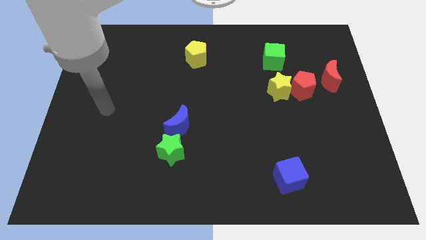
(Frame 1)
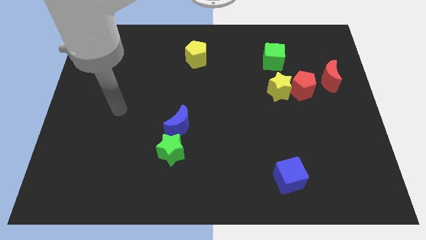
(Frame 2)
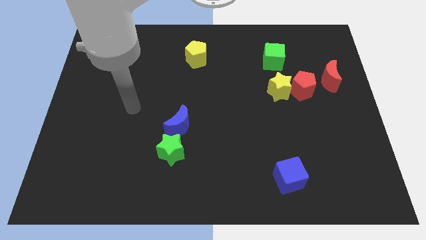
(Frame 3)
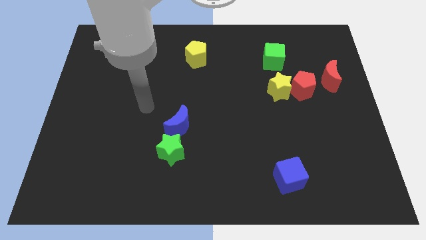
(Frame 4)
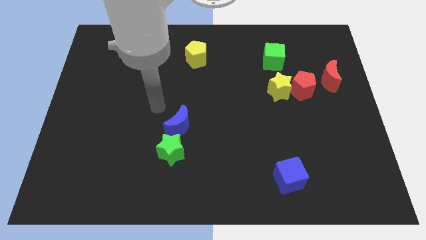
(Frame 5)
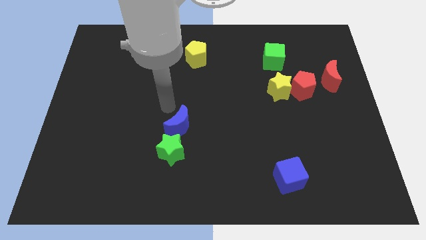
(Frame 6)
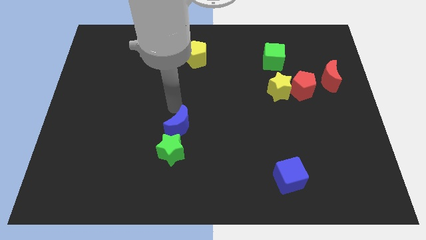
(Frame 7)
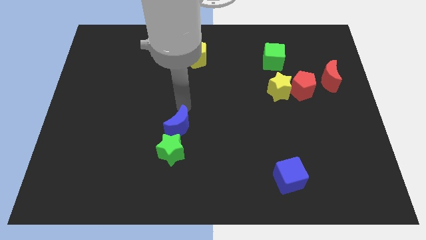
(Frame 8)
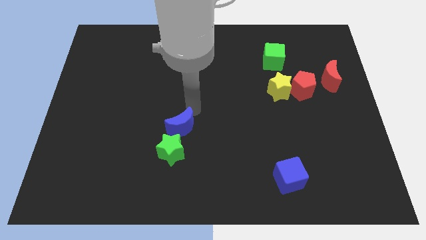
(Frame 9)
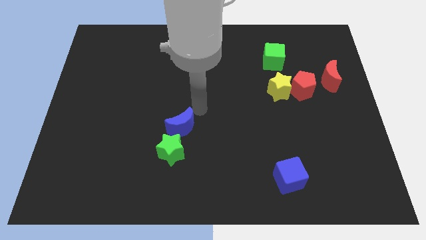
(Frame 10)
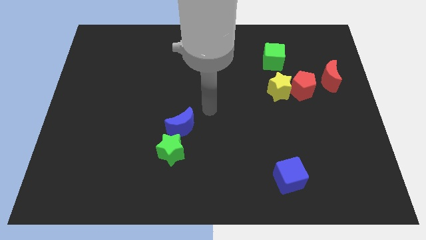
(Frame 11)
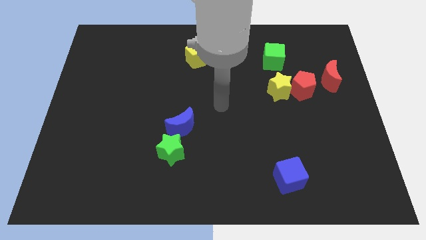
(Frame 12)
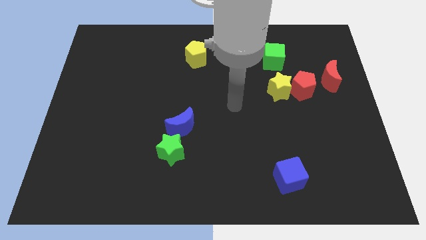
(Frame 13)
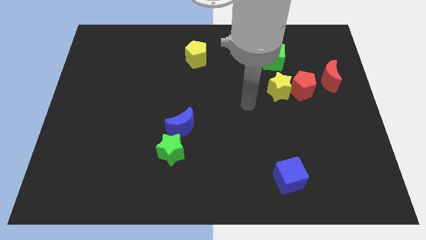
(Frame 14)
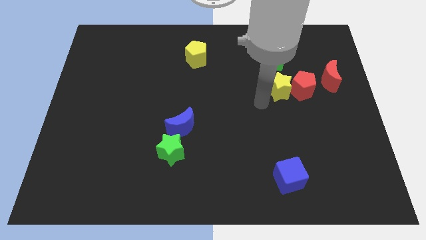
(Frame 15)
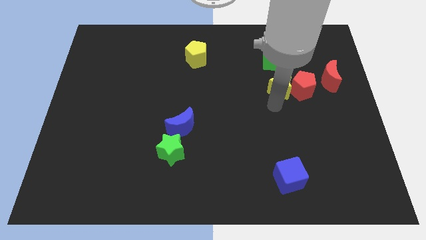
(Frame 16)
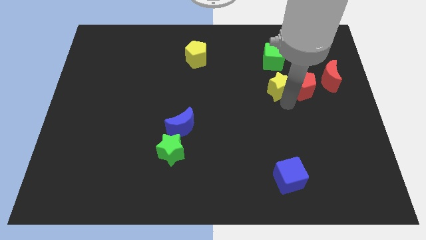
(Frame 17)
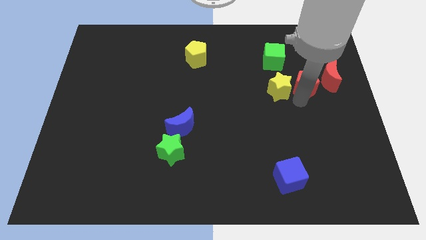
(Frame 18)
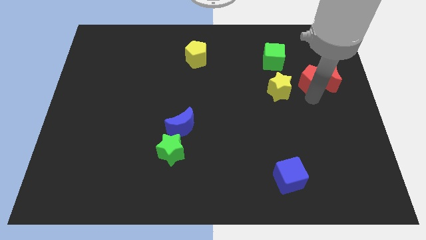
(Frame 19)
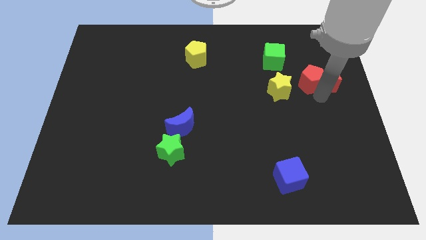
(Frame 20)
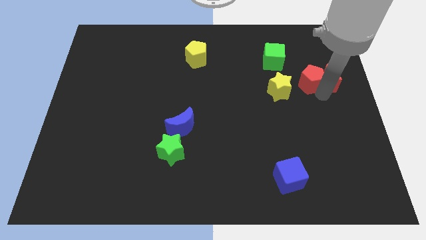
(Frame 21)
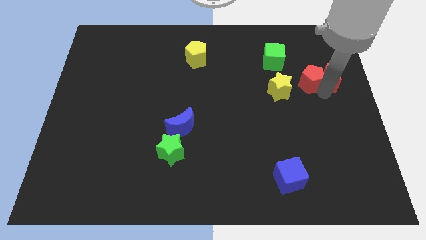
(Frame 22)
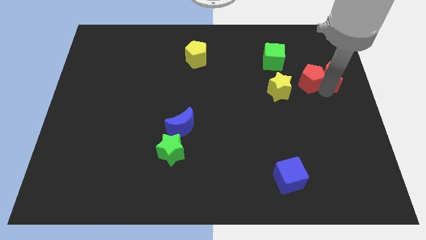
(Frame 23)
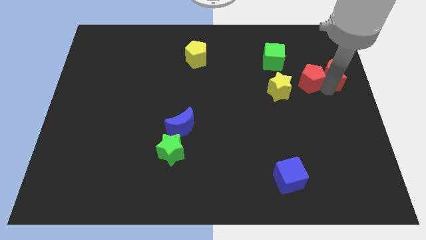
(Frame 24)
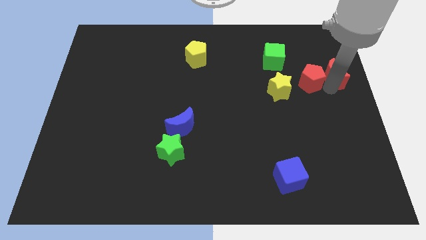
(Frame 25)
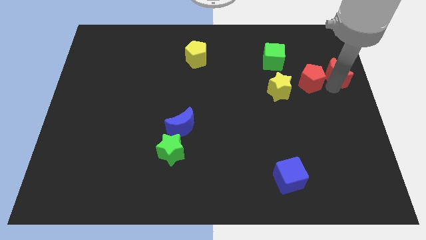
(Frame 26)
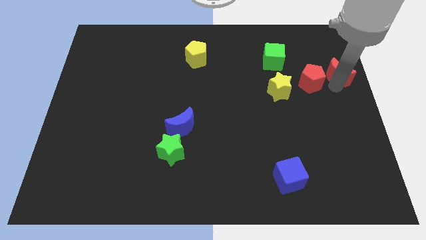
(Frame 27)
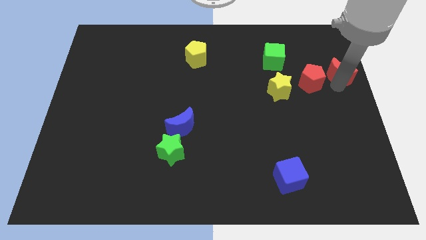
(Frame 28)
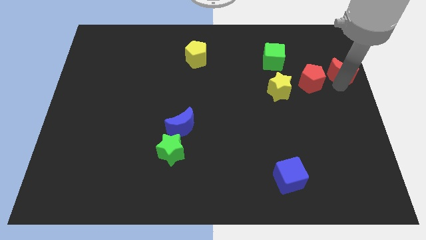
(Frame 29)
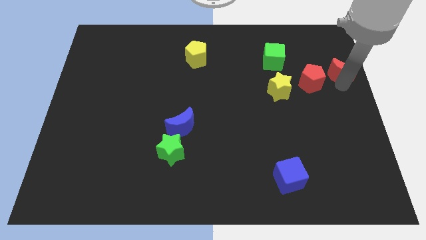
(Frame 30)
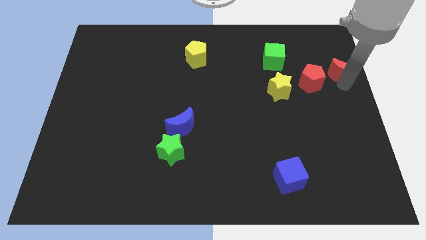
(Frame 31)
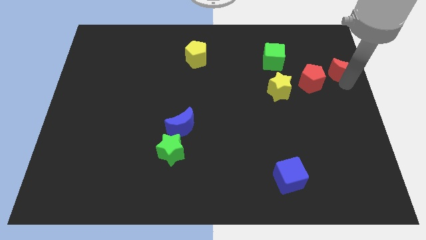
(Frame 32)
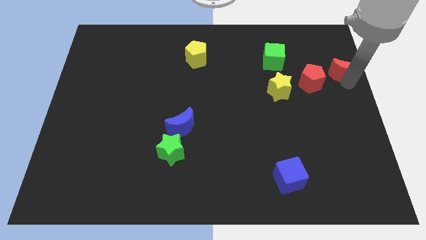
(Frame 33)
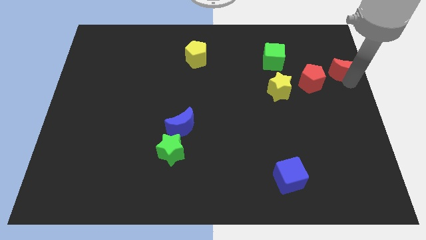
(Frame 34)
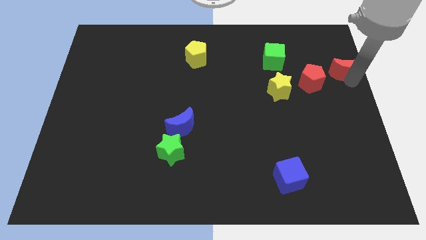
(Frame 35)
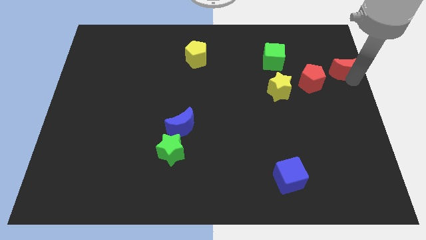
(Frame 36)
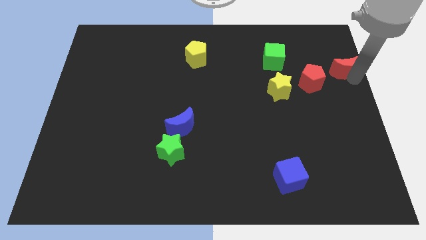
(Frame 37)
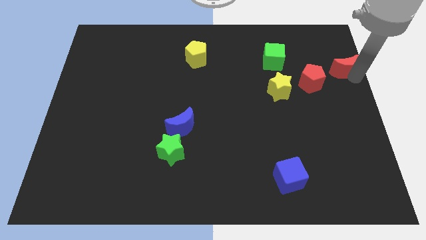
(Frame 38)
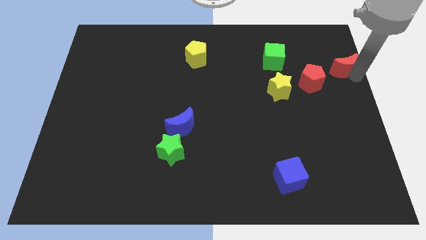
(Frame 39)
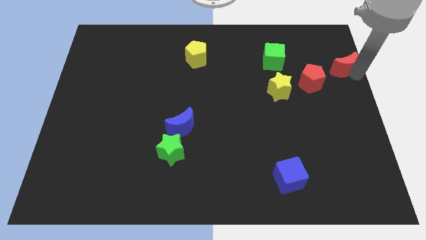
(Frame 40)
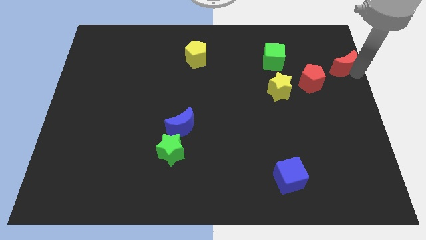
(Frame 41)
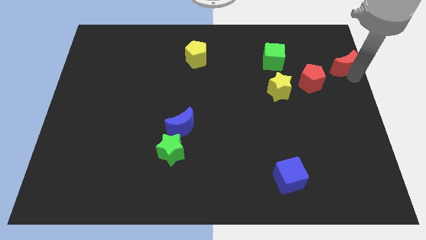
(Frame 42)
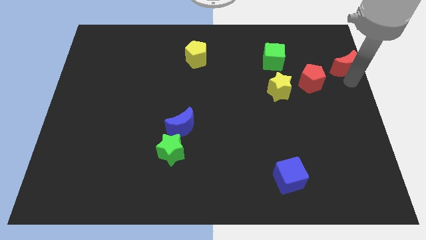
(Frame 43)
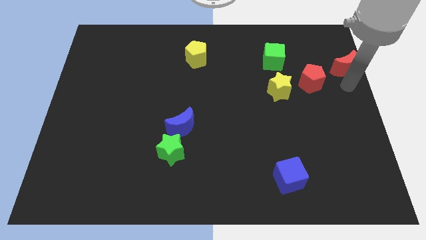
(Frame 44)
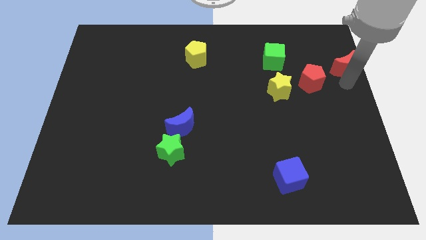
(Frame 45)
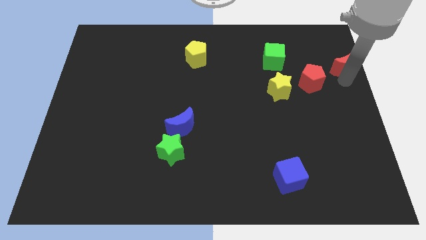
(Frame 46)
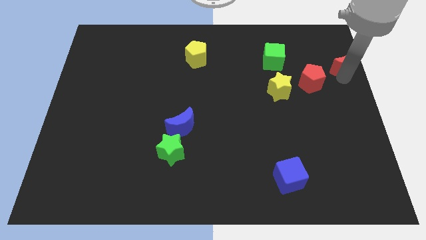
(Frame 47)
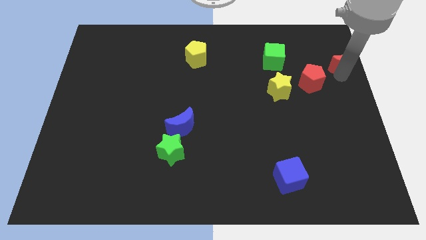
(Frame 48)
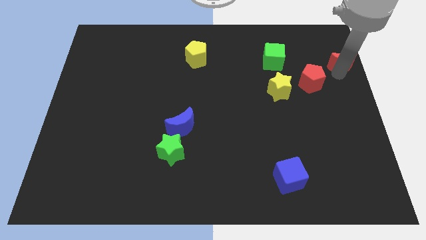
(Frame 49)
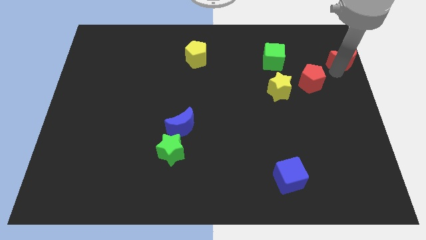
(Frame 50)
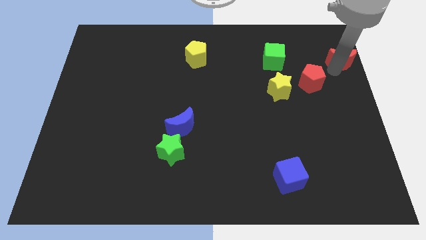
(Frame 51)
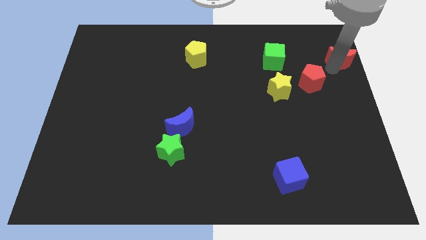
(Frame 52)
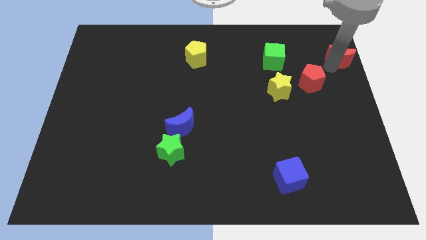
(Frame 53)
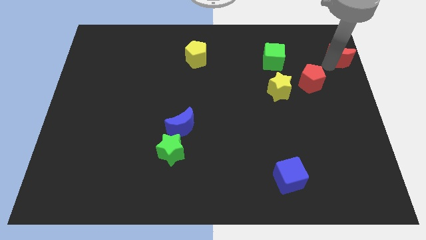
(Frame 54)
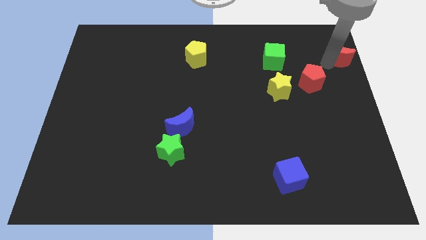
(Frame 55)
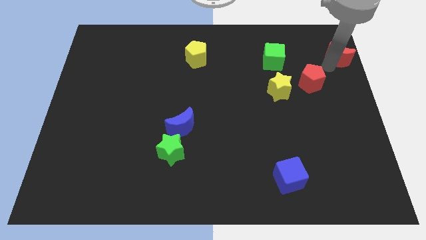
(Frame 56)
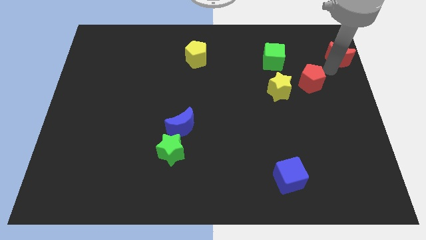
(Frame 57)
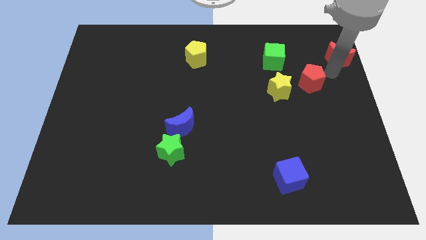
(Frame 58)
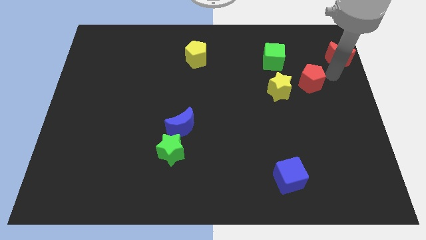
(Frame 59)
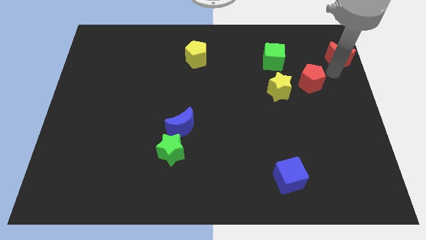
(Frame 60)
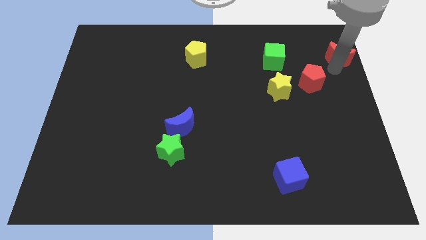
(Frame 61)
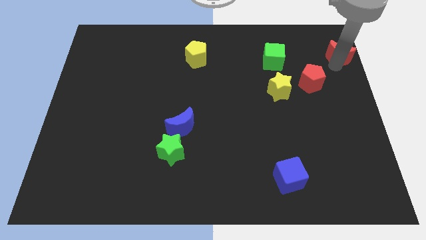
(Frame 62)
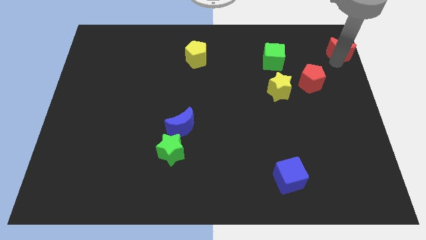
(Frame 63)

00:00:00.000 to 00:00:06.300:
slide the red moon to the top right of the board
